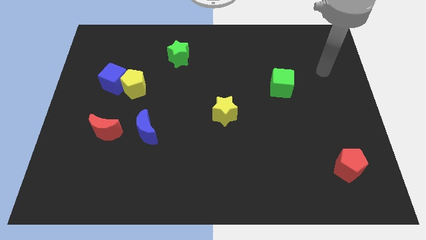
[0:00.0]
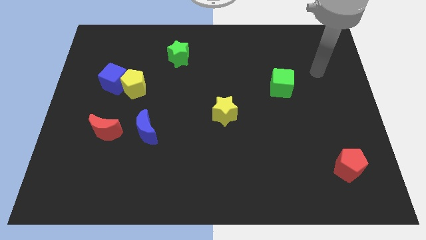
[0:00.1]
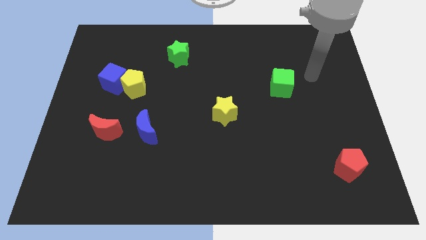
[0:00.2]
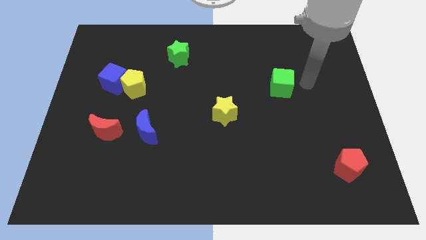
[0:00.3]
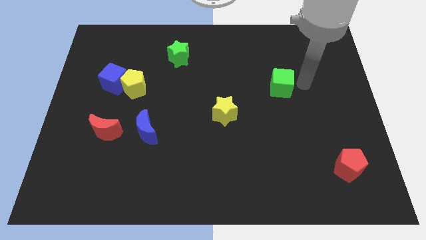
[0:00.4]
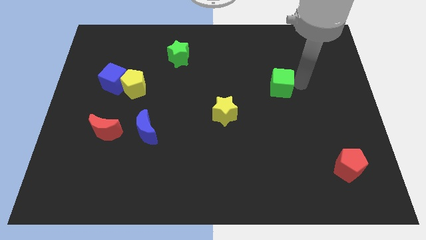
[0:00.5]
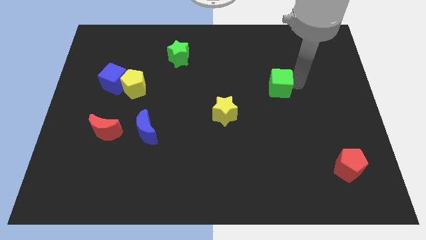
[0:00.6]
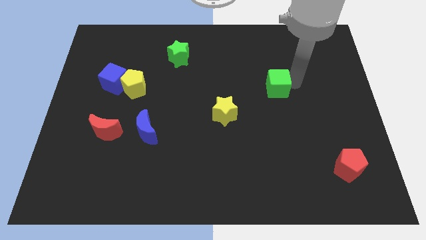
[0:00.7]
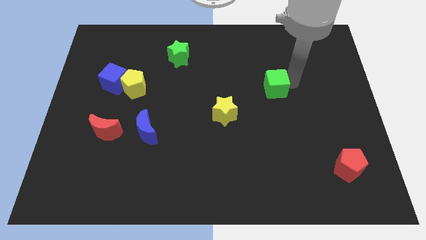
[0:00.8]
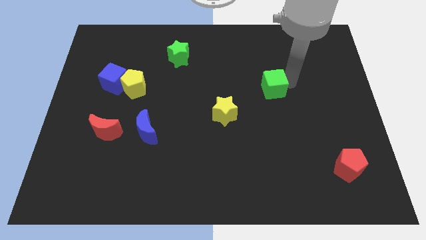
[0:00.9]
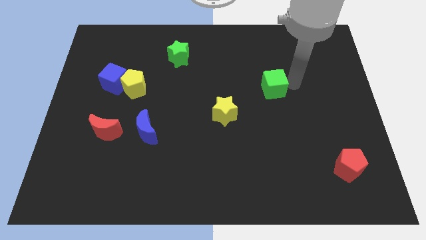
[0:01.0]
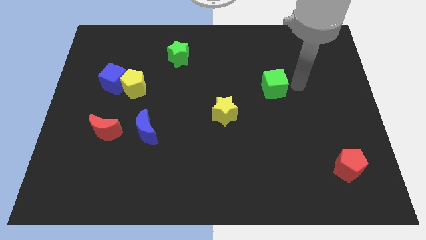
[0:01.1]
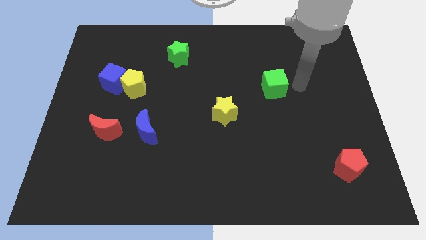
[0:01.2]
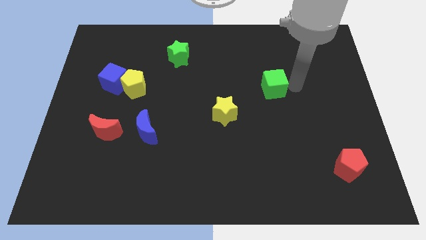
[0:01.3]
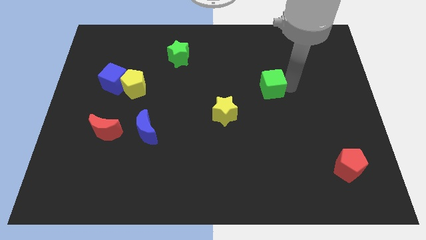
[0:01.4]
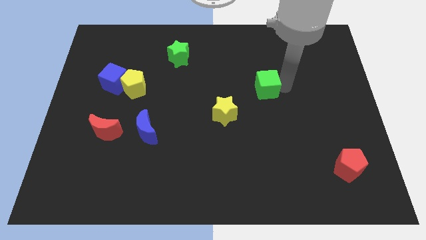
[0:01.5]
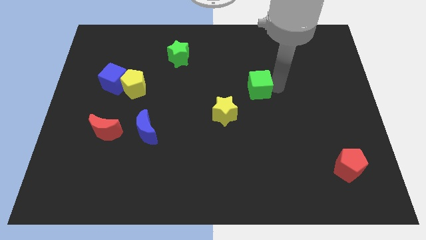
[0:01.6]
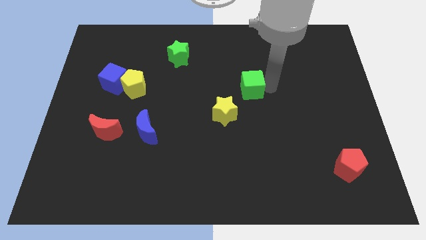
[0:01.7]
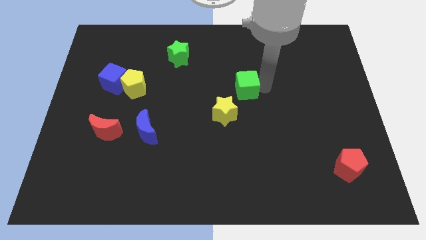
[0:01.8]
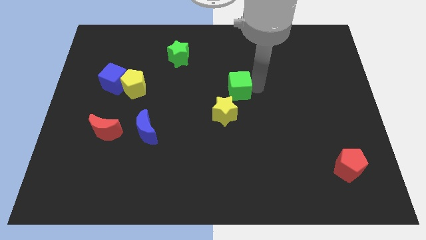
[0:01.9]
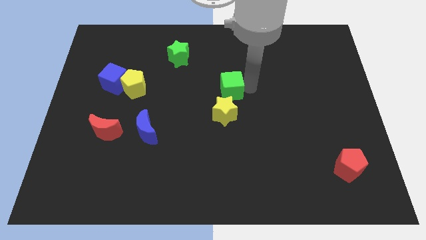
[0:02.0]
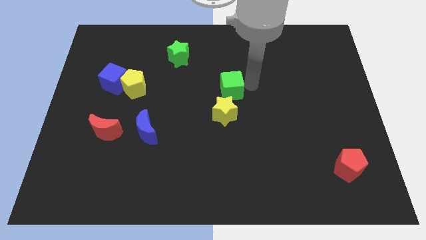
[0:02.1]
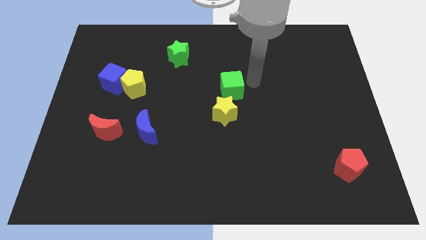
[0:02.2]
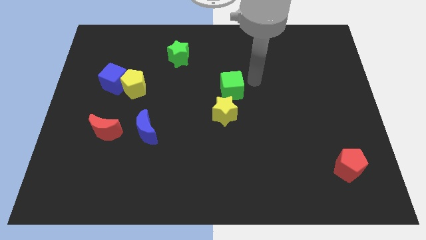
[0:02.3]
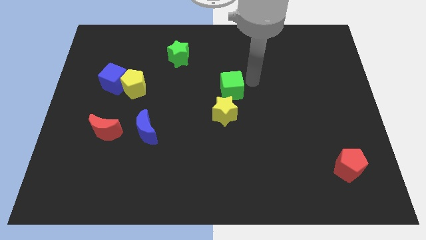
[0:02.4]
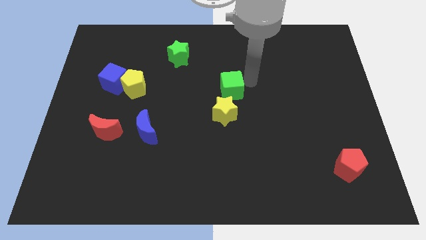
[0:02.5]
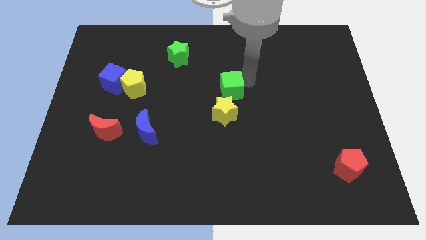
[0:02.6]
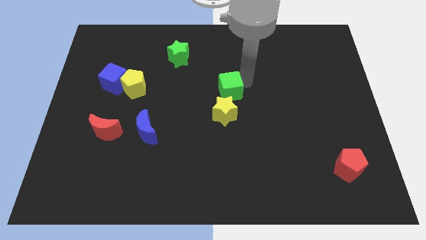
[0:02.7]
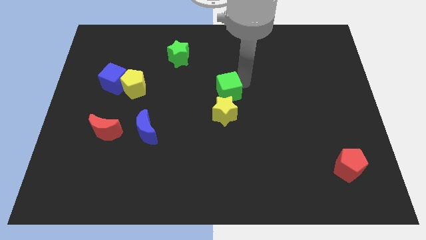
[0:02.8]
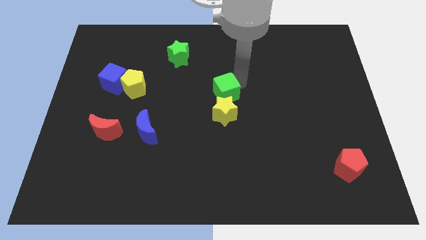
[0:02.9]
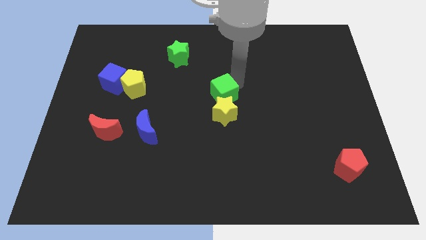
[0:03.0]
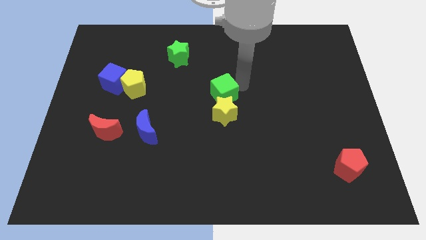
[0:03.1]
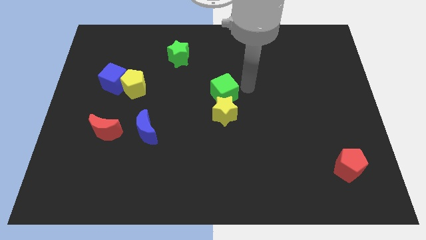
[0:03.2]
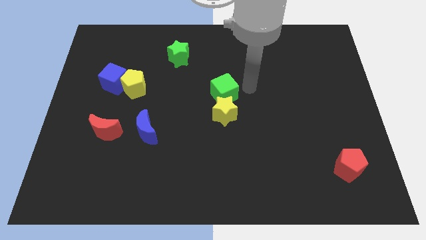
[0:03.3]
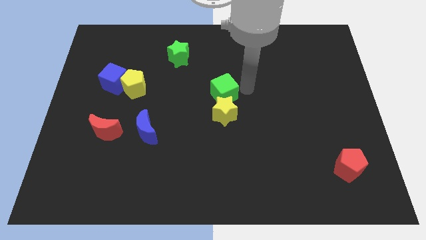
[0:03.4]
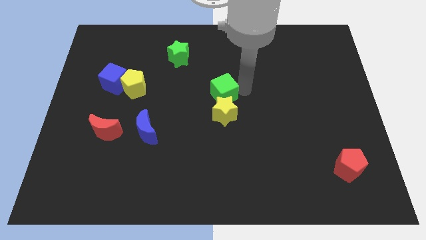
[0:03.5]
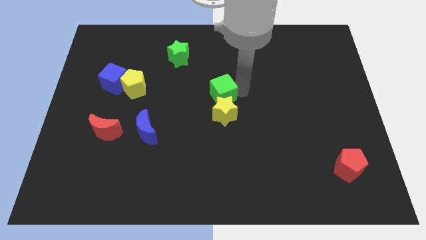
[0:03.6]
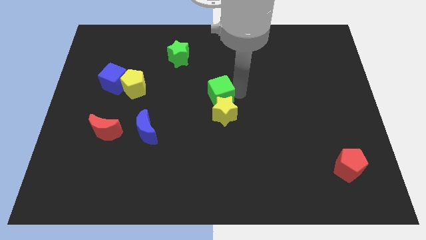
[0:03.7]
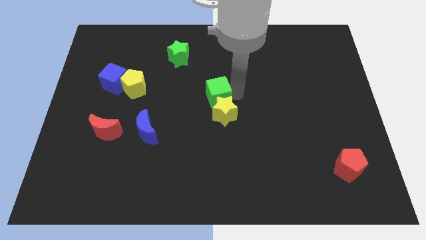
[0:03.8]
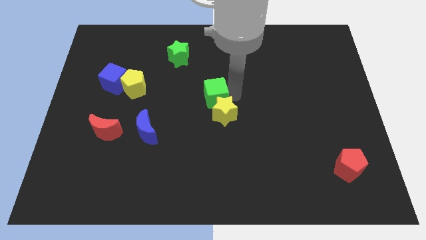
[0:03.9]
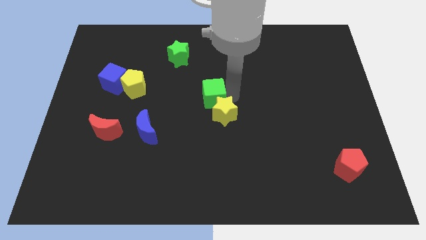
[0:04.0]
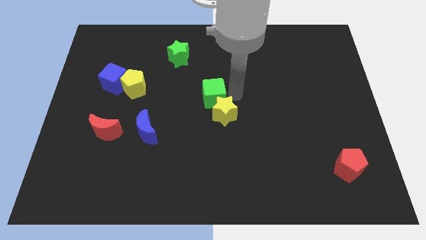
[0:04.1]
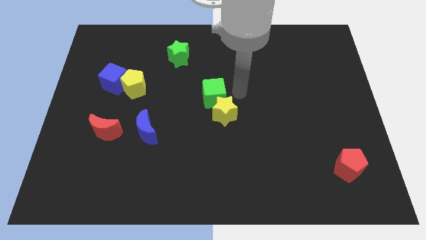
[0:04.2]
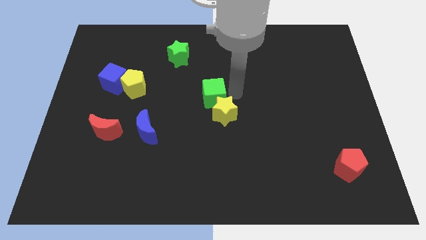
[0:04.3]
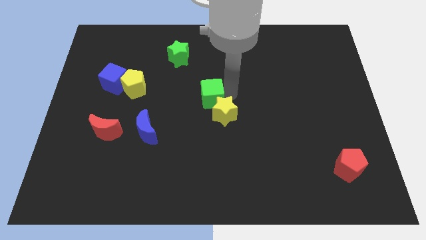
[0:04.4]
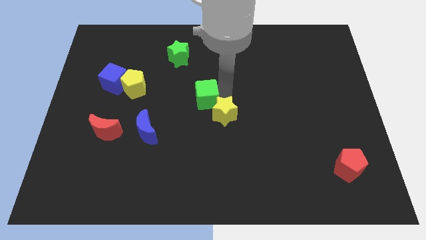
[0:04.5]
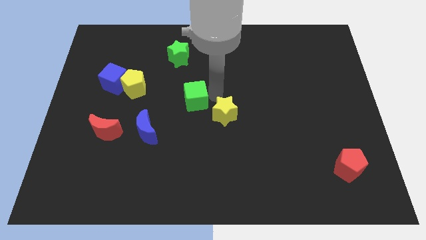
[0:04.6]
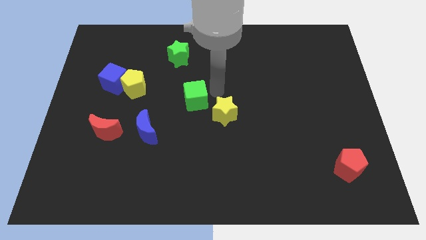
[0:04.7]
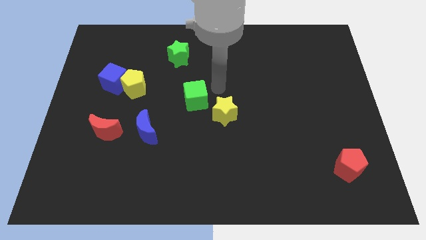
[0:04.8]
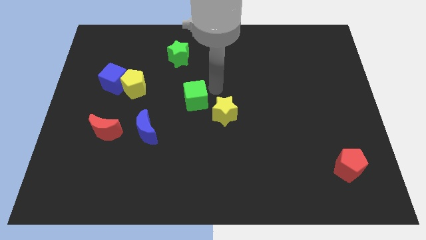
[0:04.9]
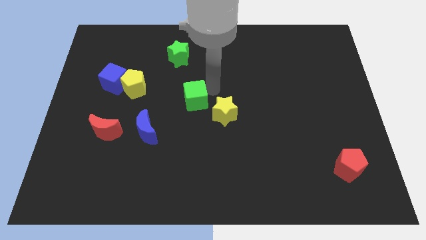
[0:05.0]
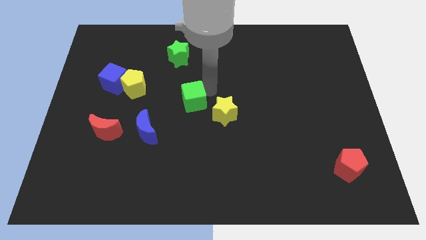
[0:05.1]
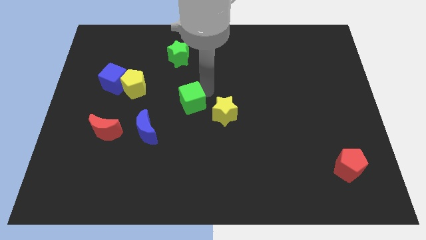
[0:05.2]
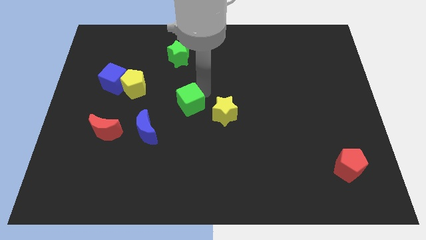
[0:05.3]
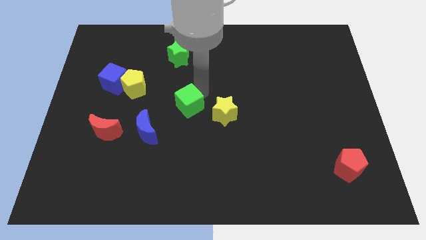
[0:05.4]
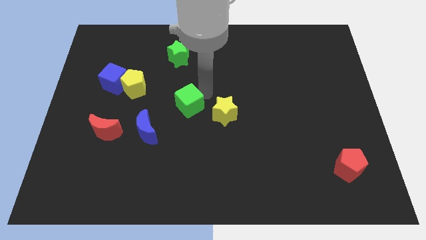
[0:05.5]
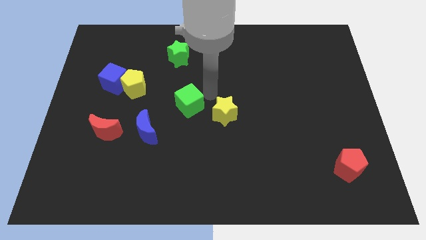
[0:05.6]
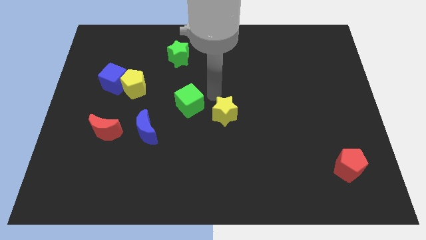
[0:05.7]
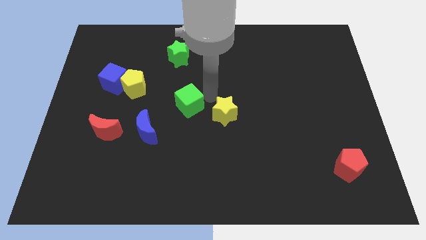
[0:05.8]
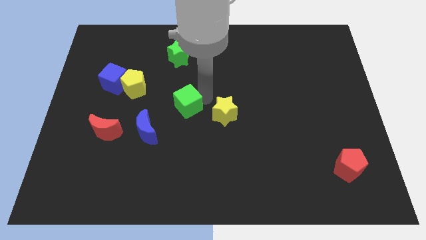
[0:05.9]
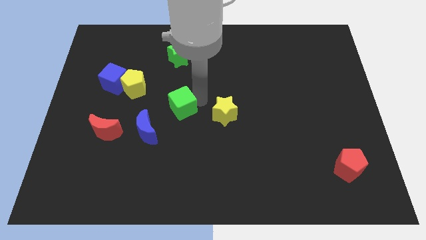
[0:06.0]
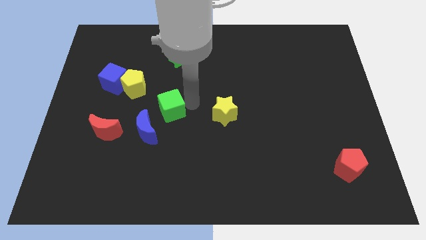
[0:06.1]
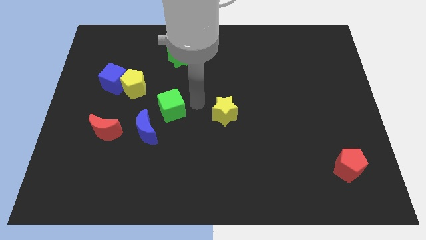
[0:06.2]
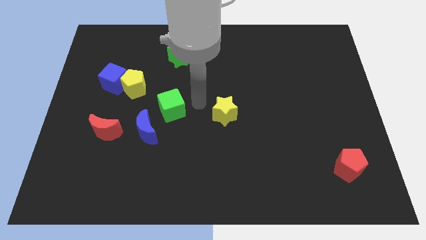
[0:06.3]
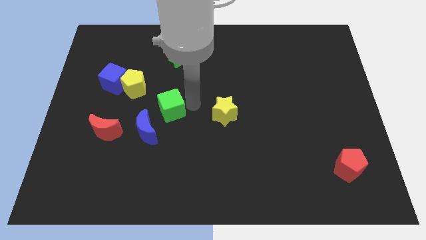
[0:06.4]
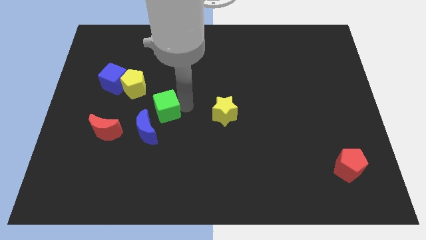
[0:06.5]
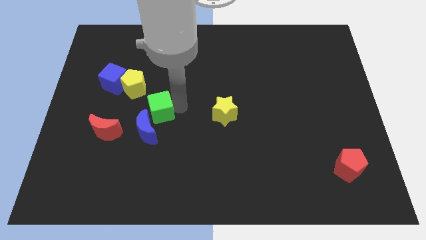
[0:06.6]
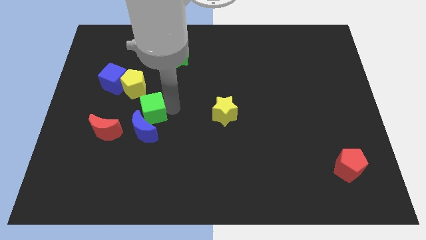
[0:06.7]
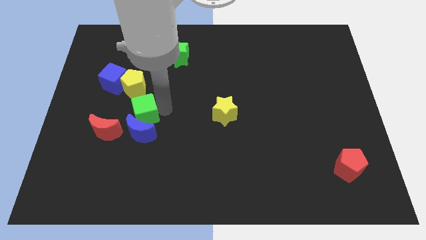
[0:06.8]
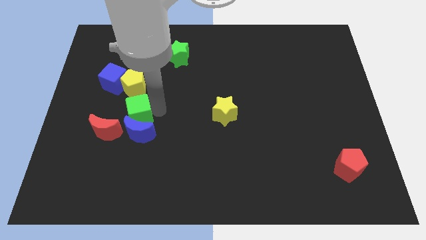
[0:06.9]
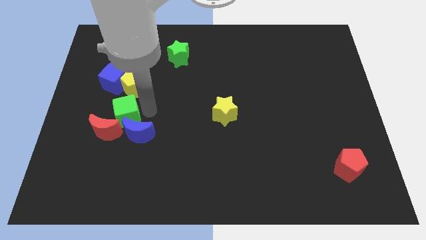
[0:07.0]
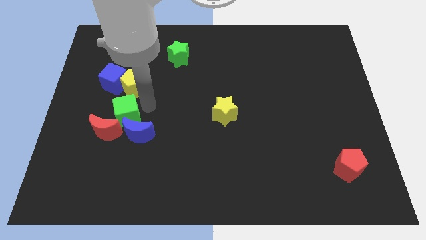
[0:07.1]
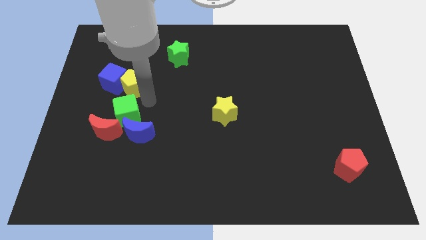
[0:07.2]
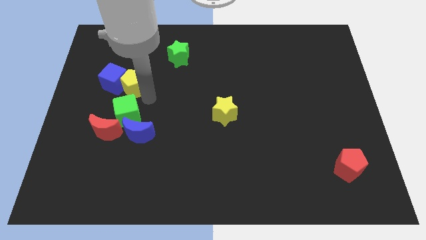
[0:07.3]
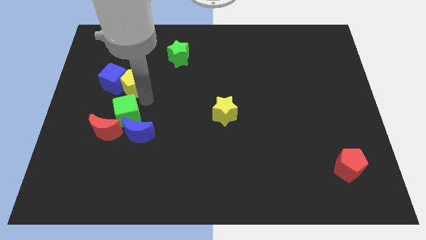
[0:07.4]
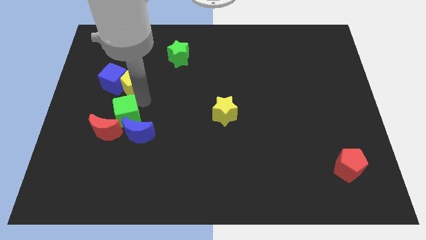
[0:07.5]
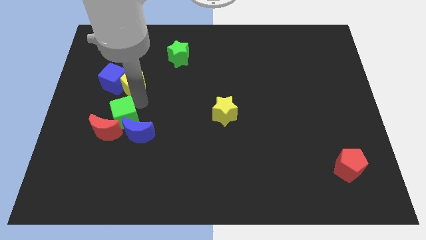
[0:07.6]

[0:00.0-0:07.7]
slide the green cube close to the red moon
